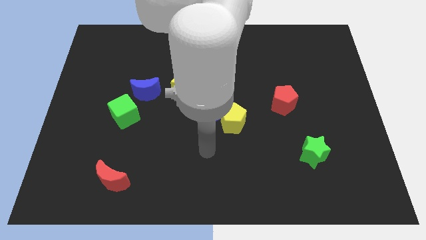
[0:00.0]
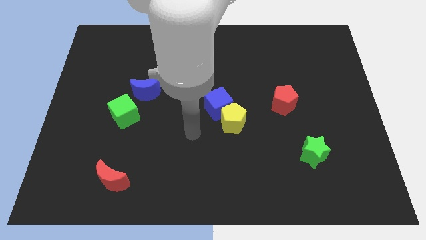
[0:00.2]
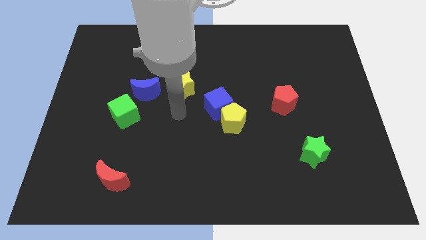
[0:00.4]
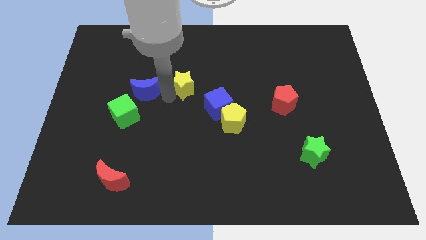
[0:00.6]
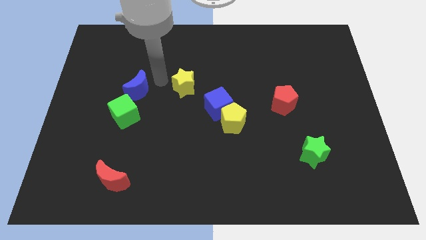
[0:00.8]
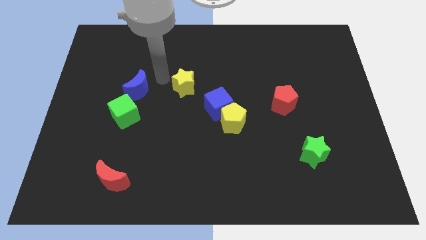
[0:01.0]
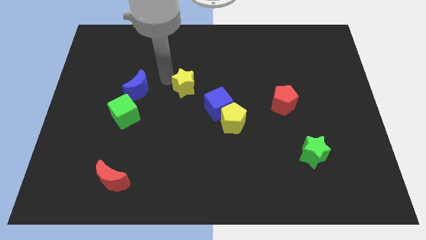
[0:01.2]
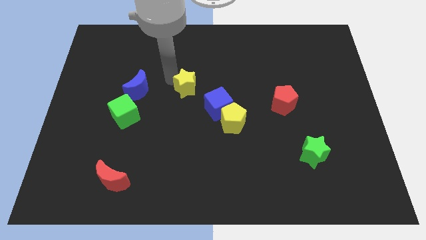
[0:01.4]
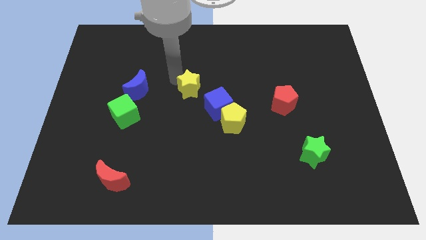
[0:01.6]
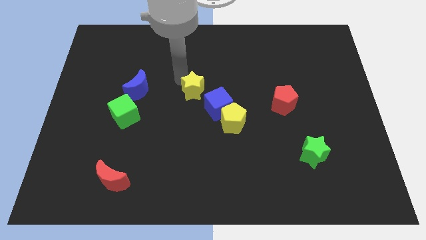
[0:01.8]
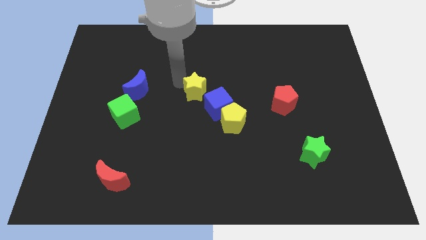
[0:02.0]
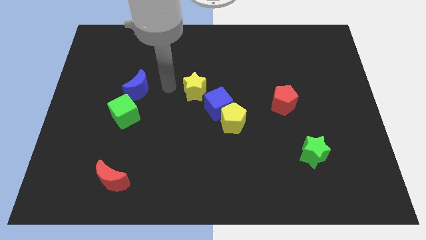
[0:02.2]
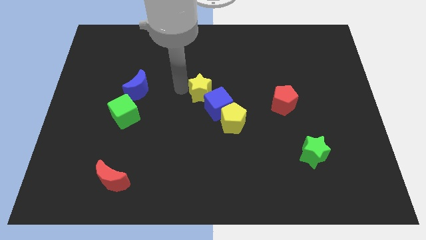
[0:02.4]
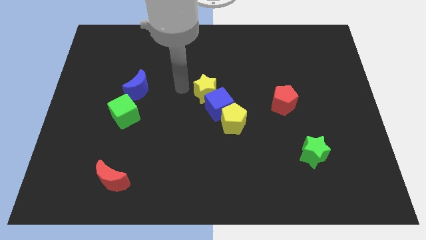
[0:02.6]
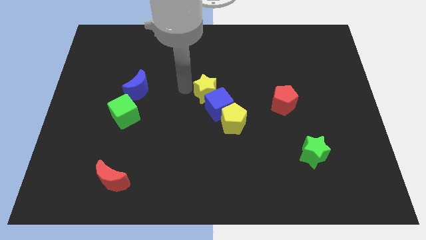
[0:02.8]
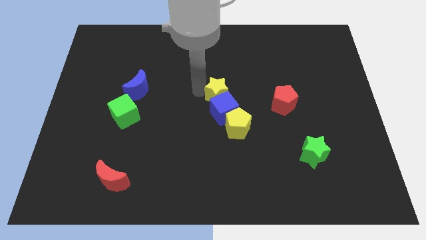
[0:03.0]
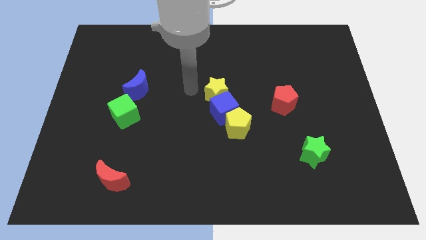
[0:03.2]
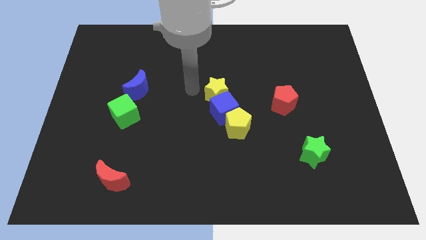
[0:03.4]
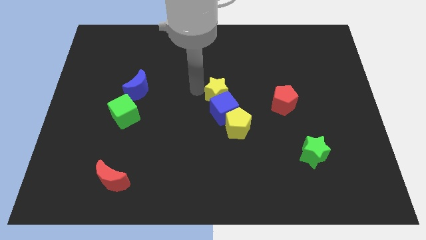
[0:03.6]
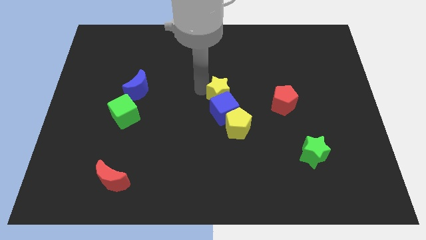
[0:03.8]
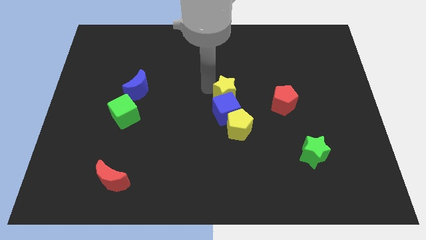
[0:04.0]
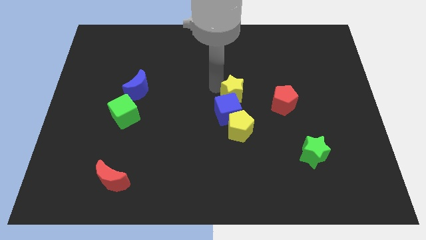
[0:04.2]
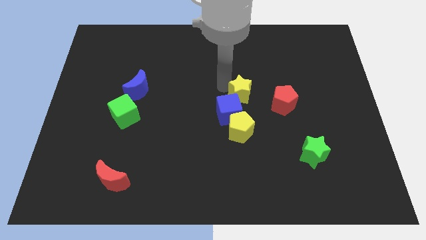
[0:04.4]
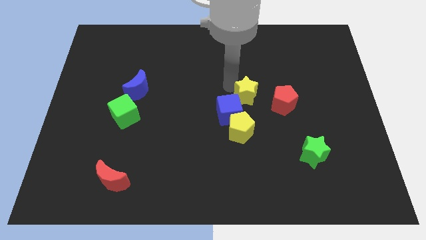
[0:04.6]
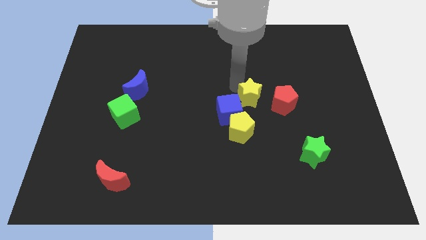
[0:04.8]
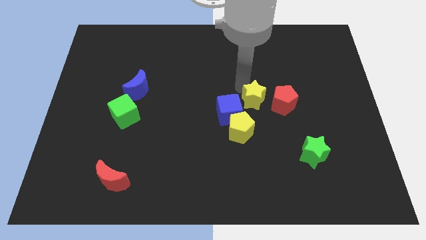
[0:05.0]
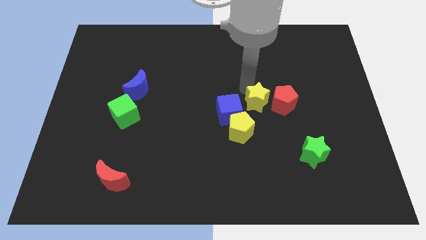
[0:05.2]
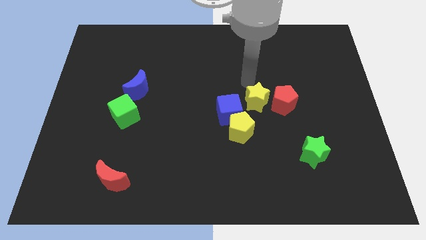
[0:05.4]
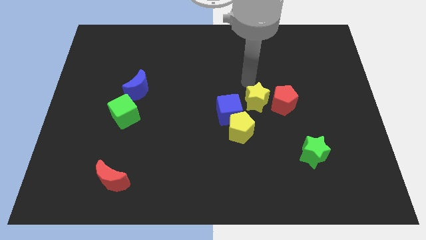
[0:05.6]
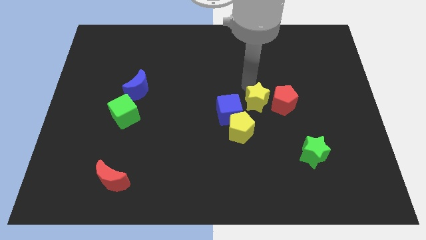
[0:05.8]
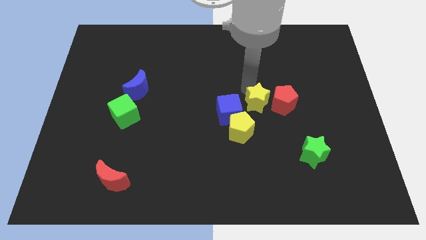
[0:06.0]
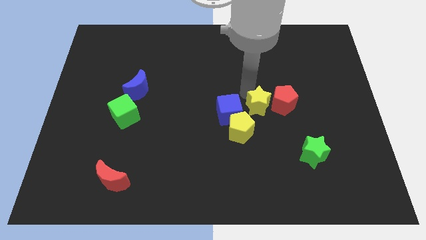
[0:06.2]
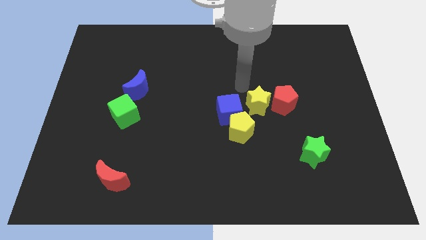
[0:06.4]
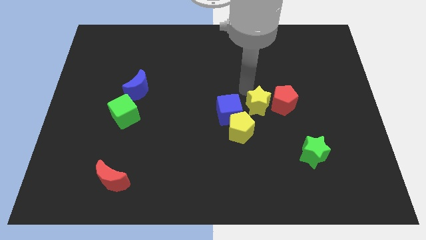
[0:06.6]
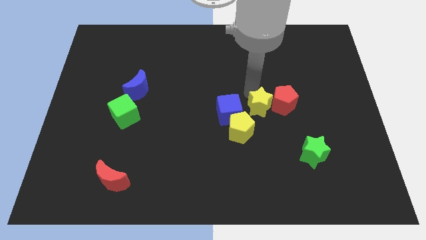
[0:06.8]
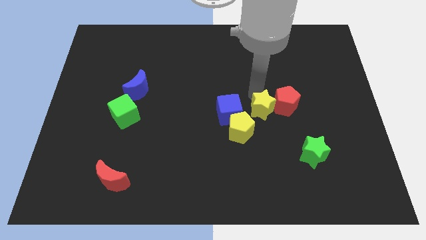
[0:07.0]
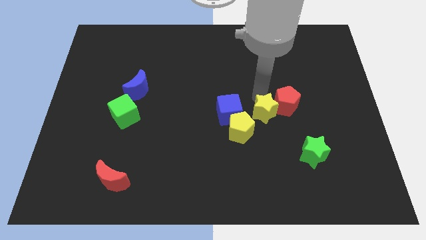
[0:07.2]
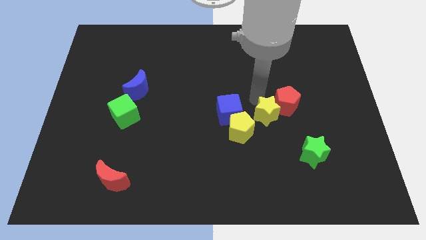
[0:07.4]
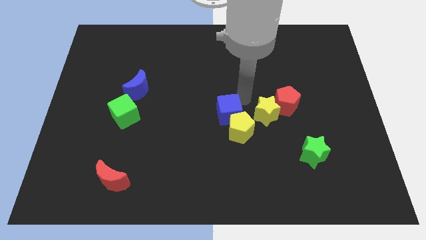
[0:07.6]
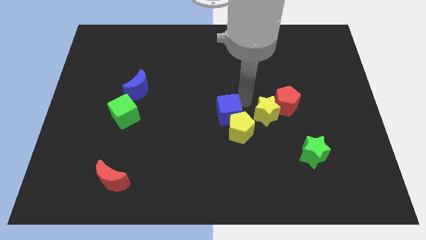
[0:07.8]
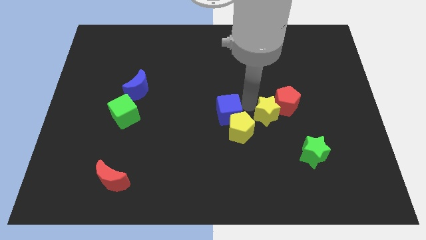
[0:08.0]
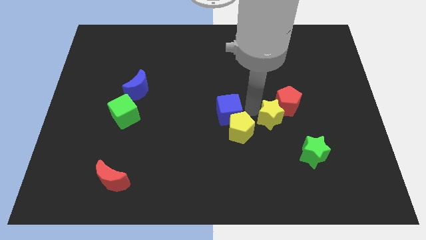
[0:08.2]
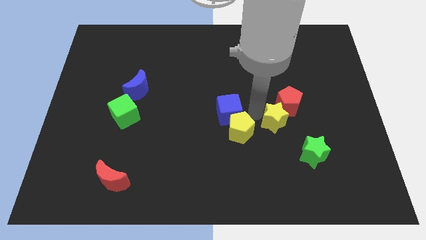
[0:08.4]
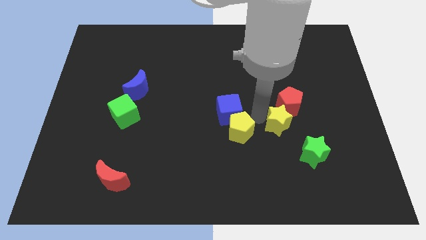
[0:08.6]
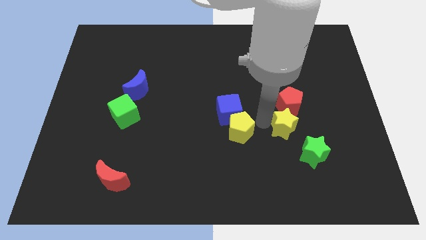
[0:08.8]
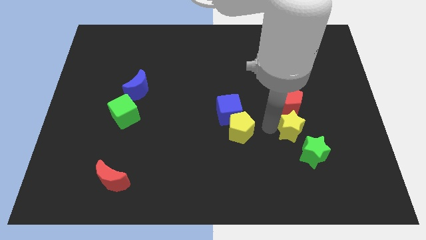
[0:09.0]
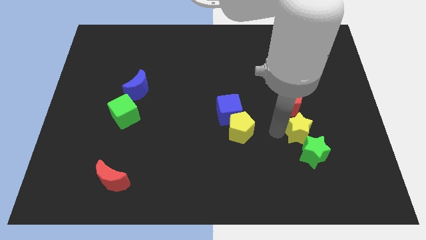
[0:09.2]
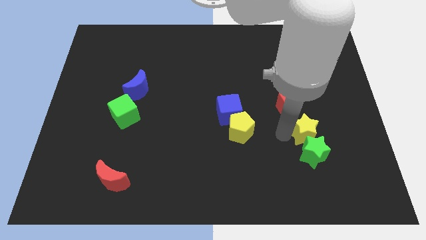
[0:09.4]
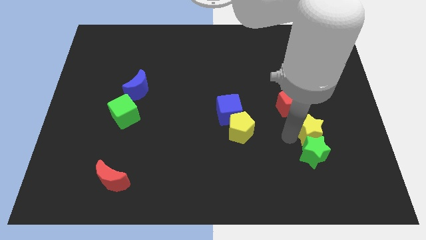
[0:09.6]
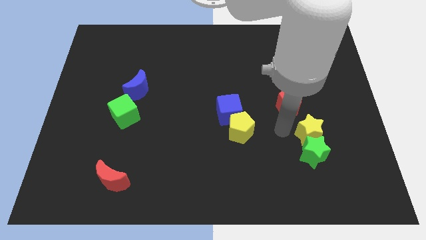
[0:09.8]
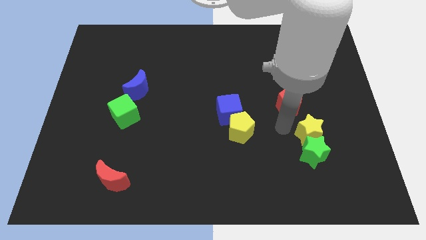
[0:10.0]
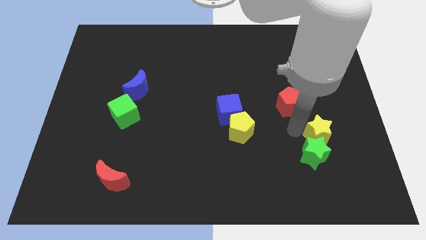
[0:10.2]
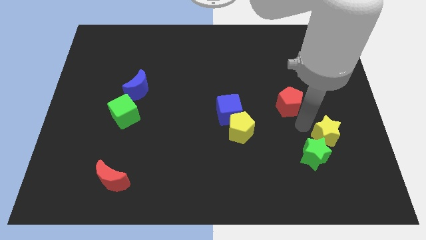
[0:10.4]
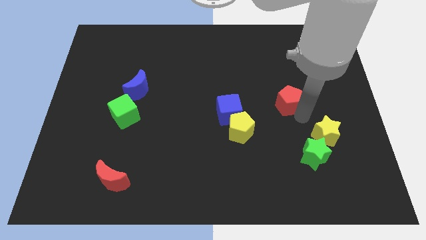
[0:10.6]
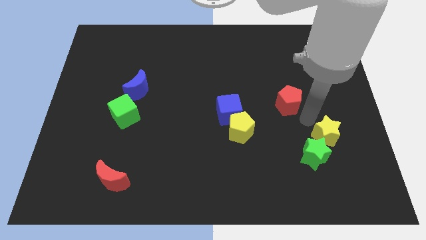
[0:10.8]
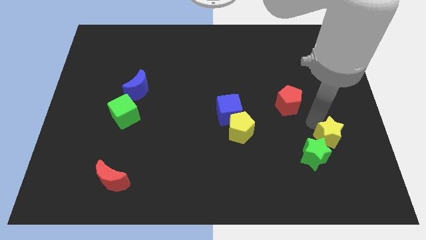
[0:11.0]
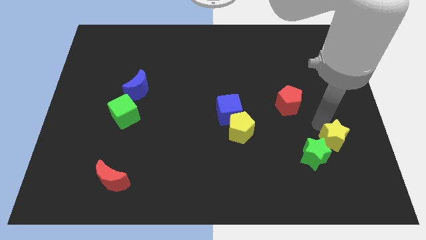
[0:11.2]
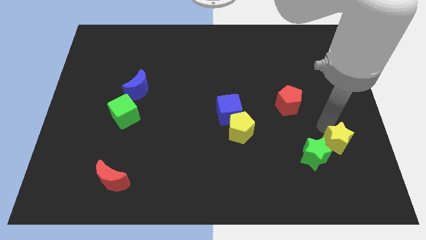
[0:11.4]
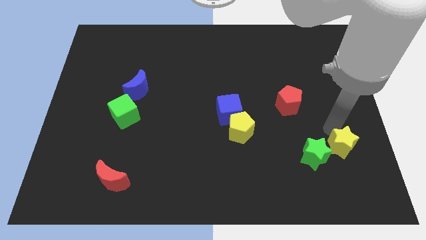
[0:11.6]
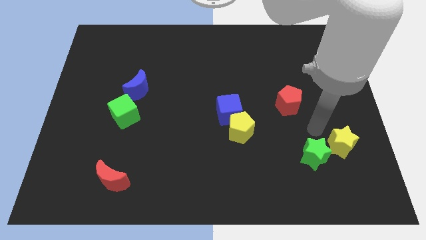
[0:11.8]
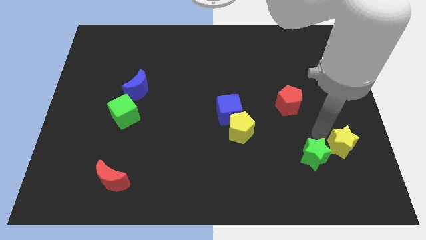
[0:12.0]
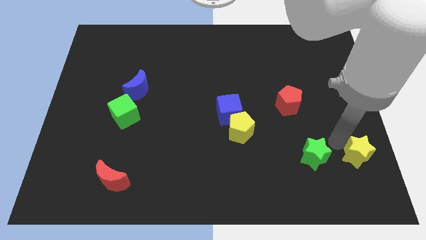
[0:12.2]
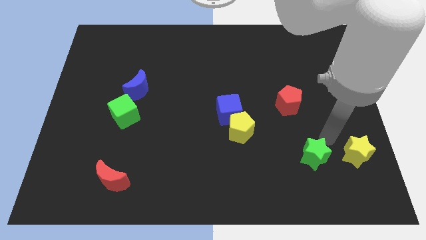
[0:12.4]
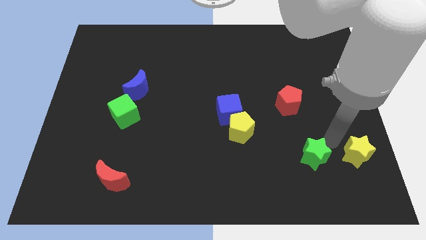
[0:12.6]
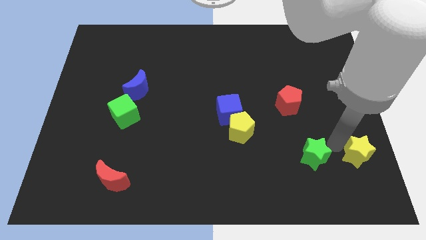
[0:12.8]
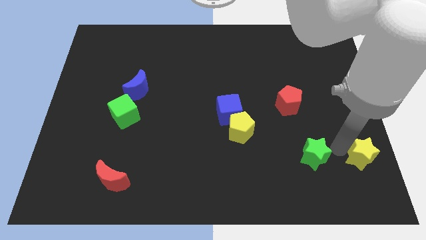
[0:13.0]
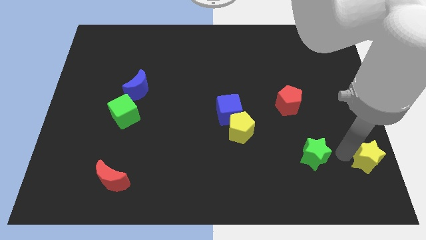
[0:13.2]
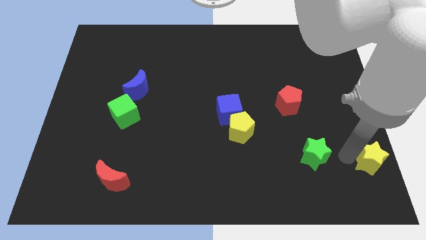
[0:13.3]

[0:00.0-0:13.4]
move the yellow star to the bottom right of the board

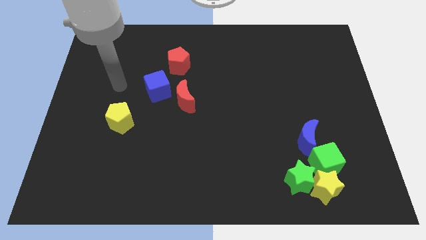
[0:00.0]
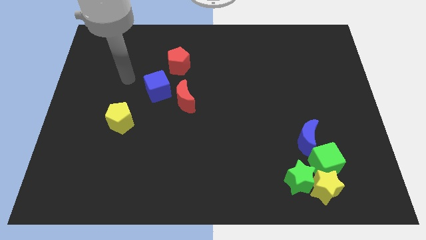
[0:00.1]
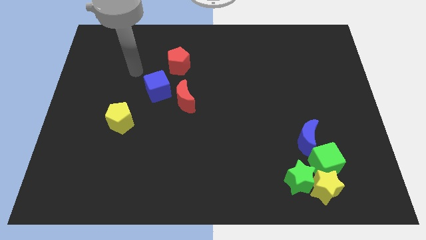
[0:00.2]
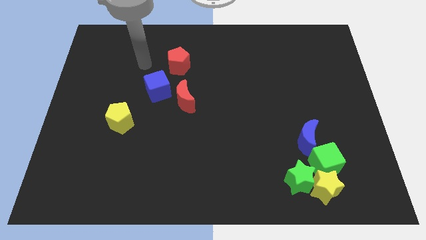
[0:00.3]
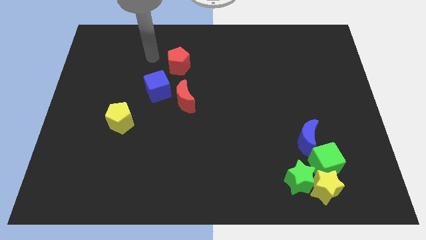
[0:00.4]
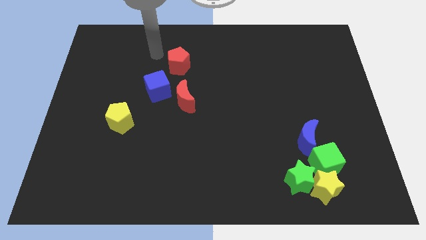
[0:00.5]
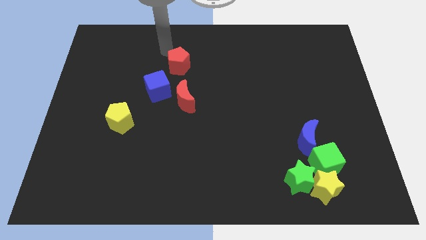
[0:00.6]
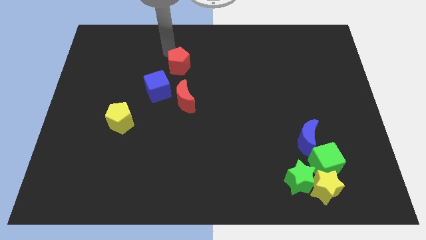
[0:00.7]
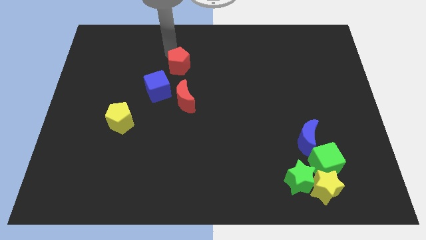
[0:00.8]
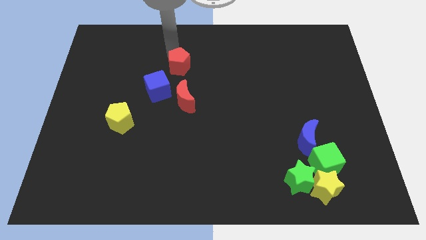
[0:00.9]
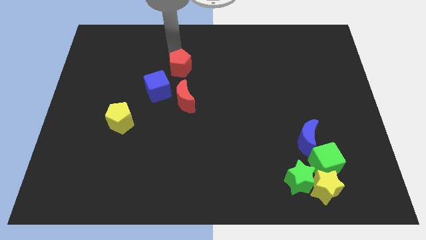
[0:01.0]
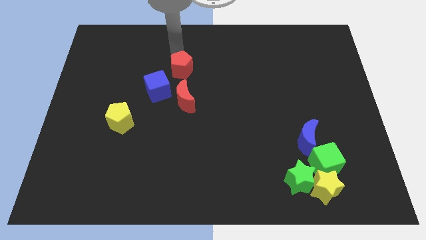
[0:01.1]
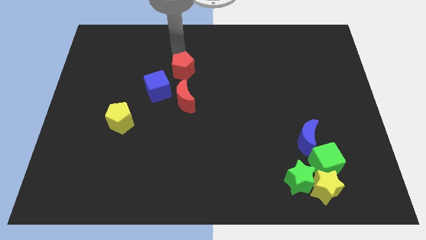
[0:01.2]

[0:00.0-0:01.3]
put the red pentagon to the middle of the board
